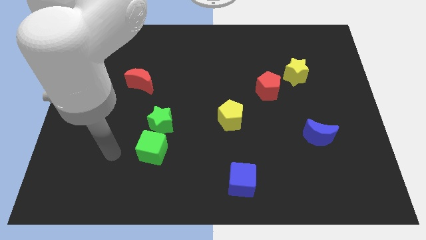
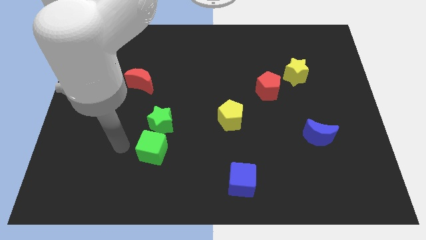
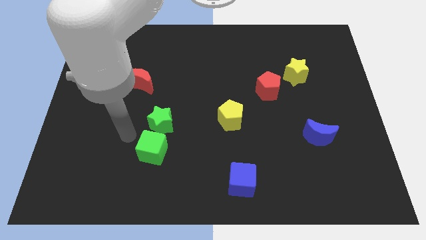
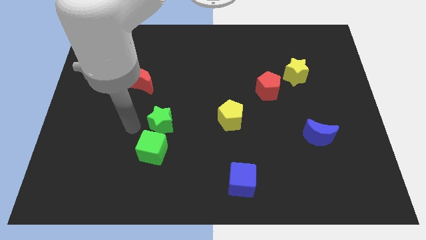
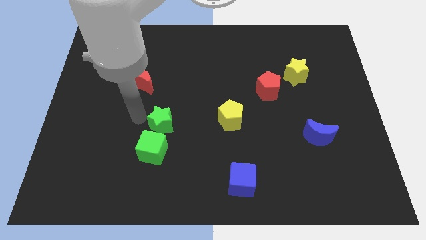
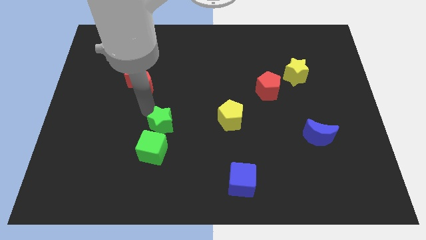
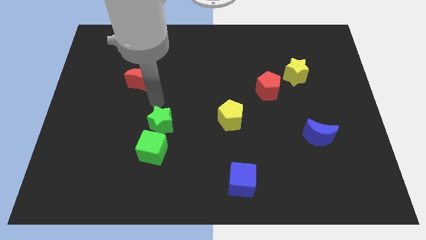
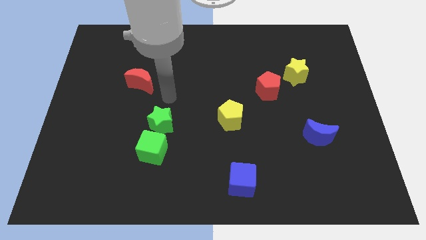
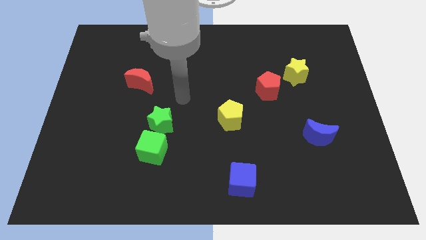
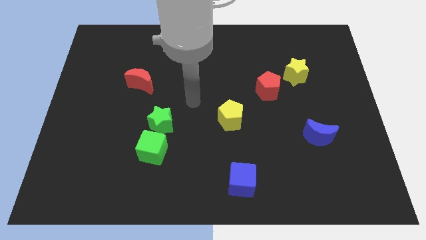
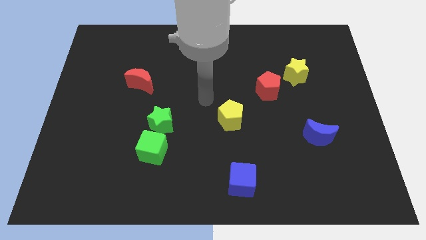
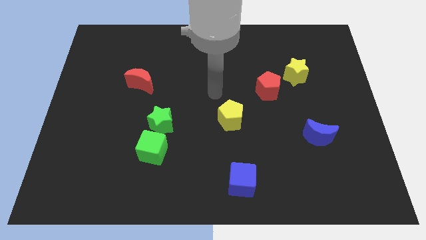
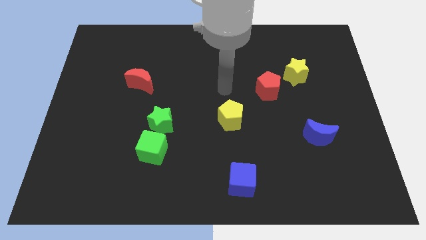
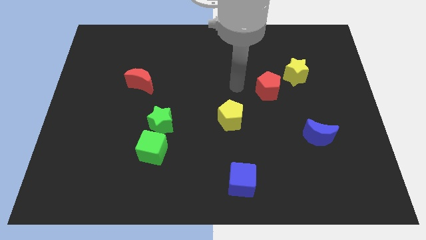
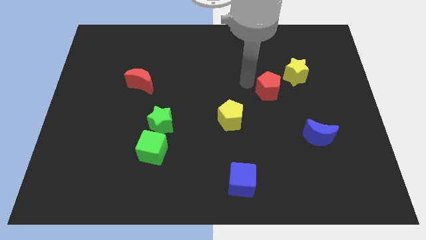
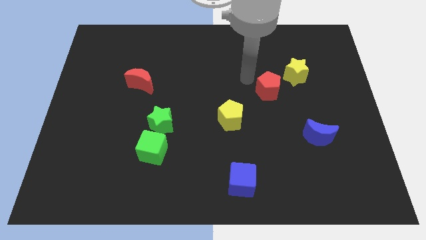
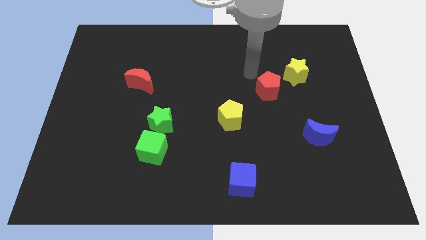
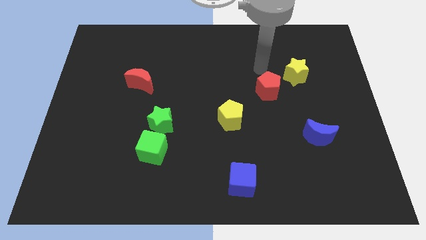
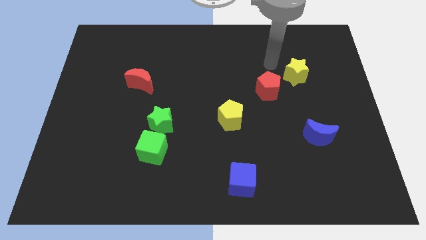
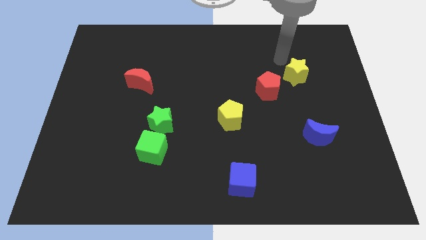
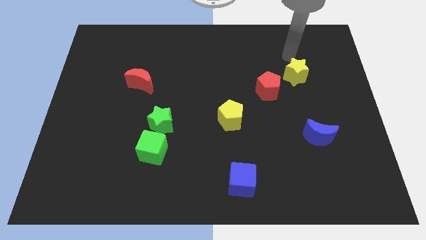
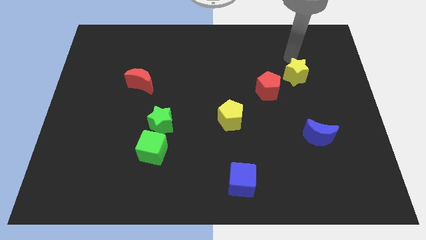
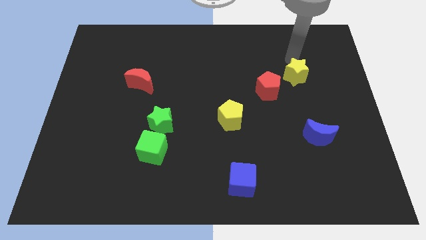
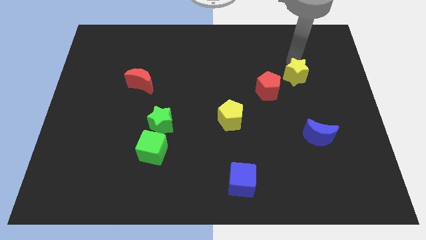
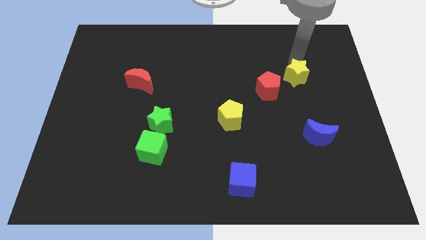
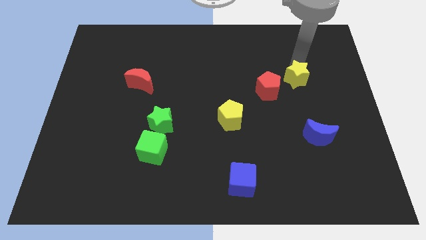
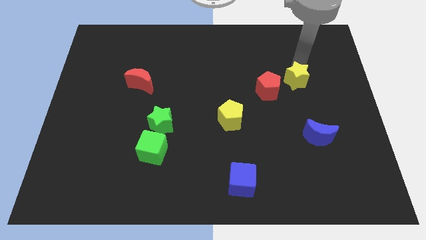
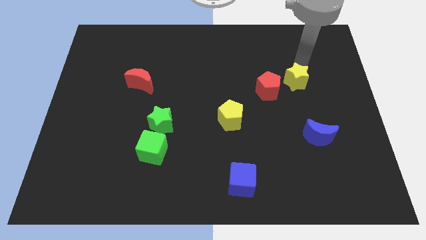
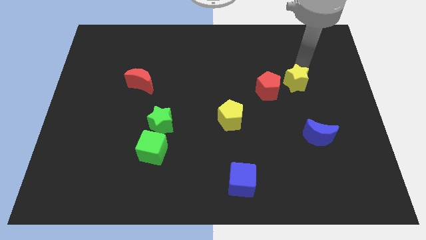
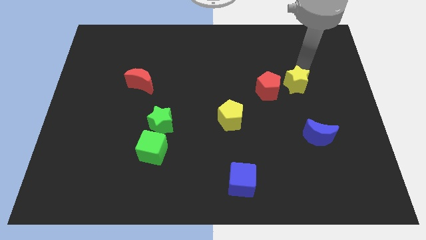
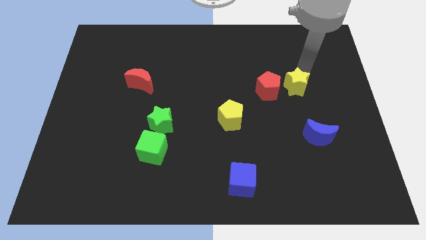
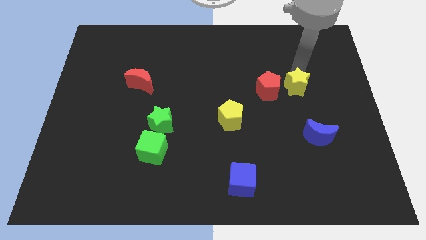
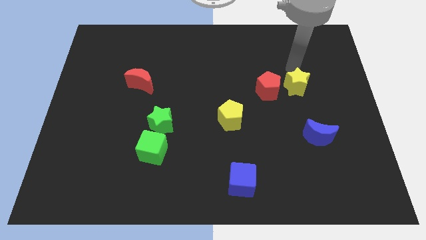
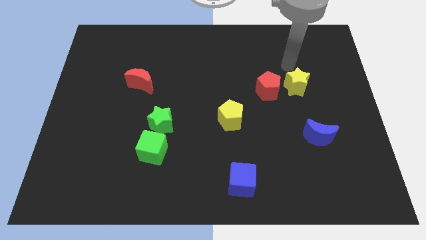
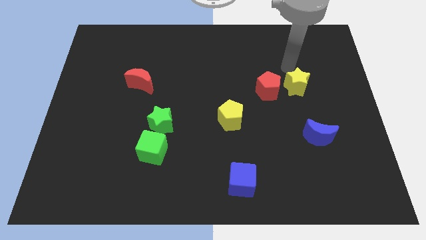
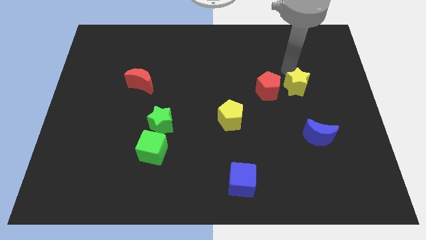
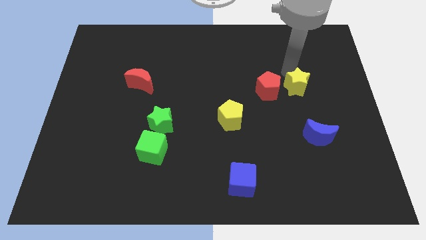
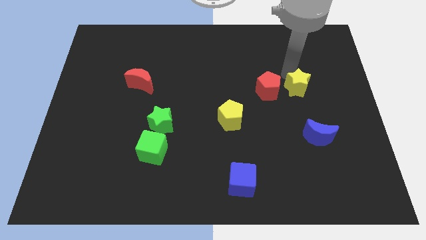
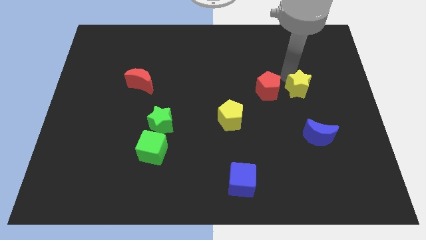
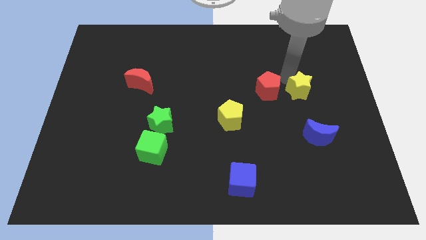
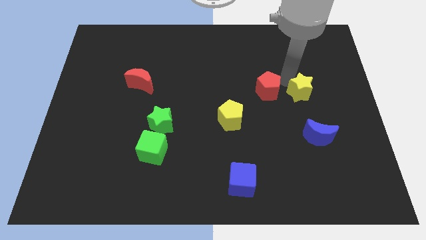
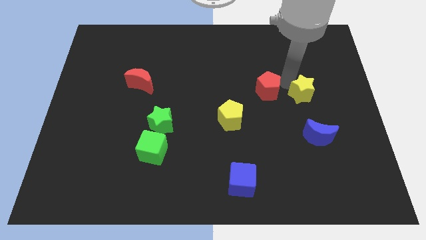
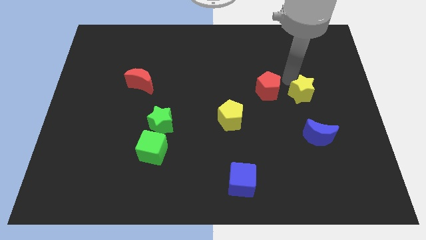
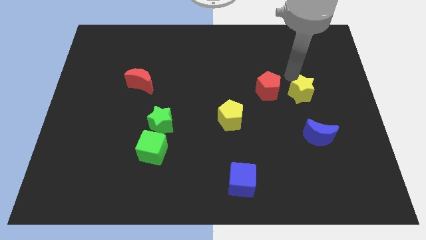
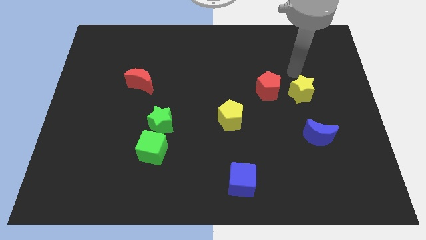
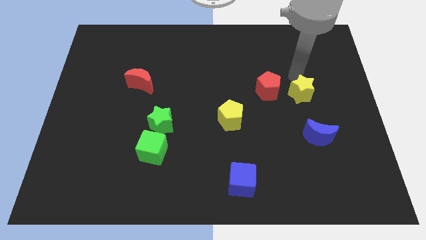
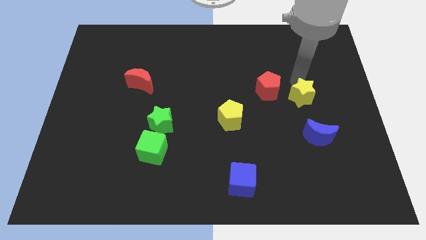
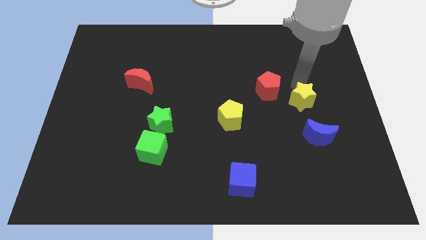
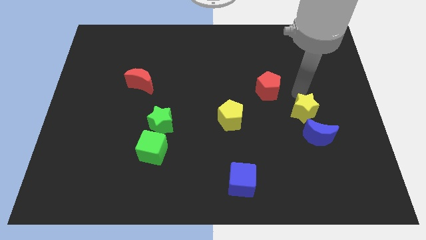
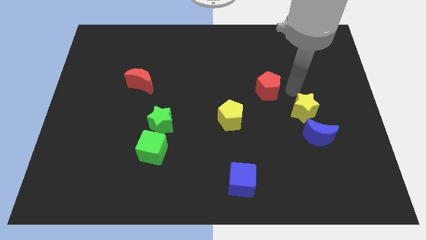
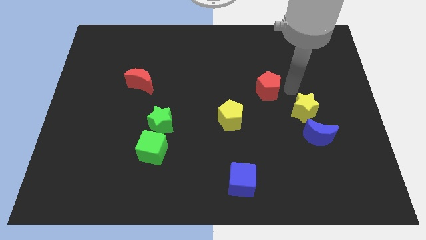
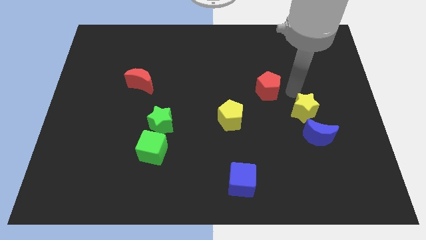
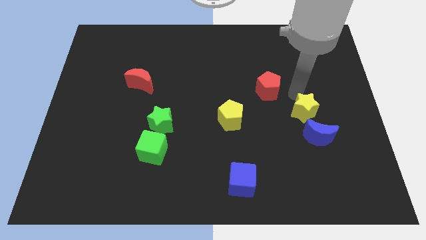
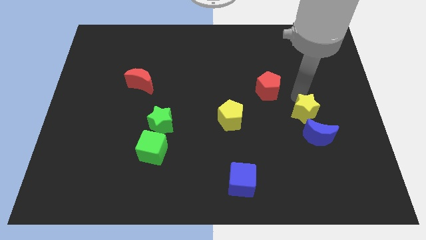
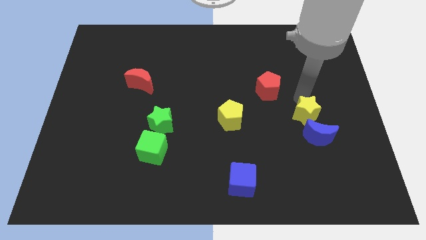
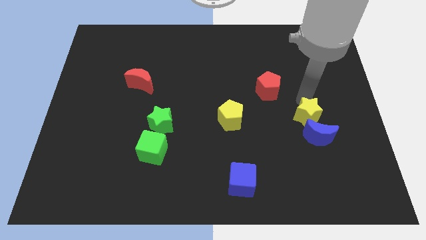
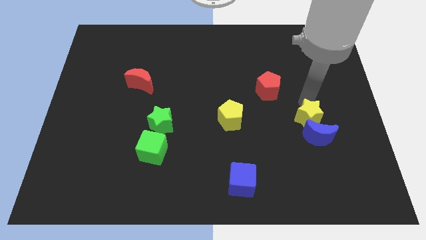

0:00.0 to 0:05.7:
push the yellow star close to the blue moon

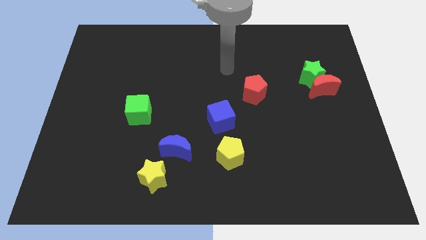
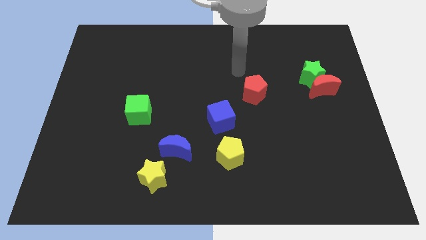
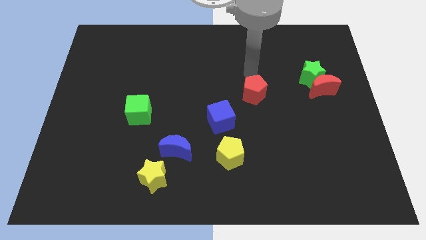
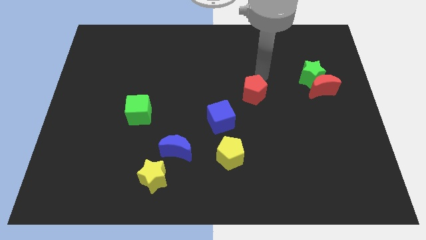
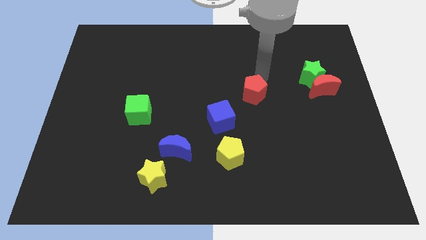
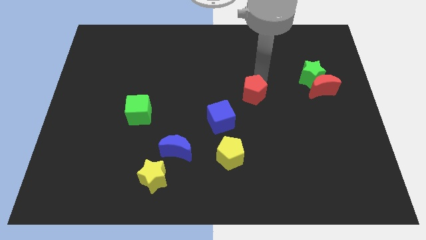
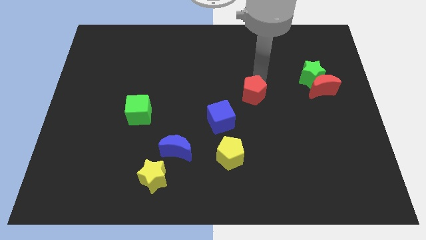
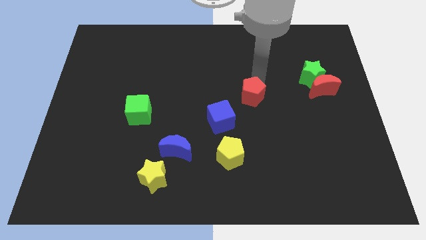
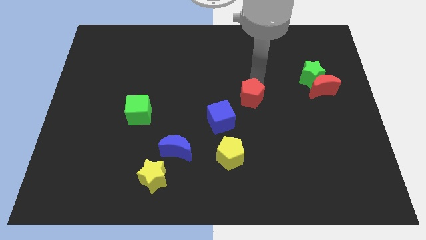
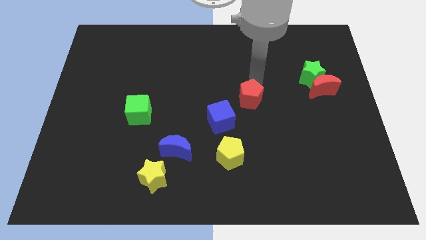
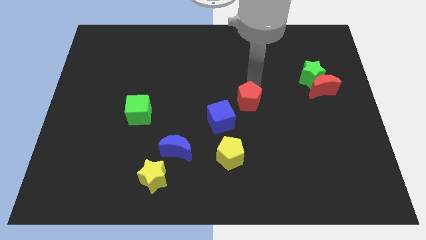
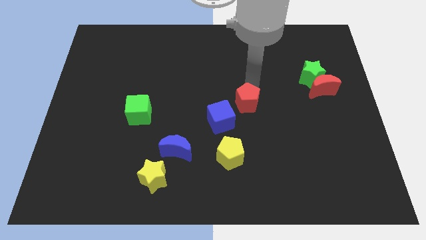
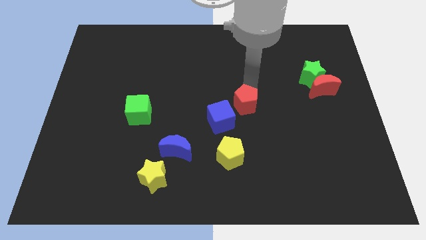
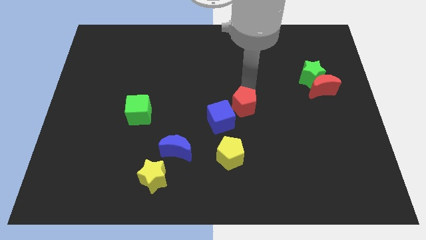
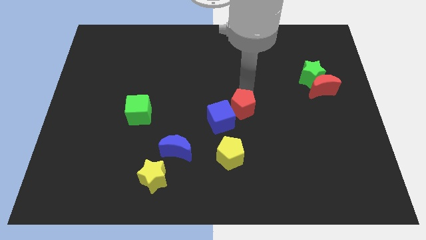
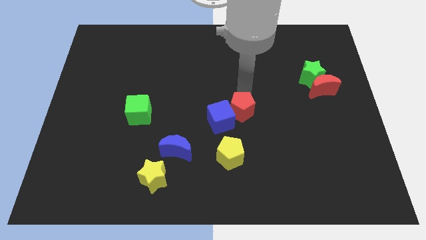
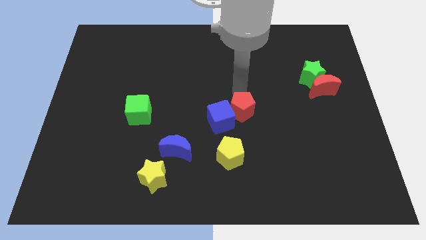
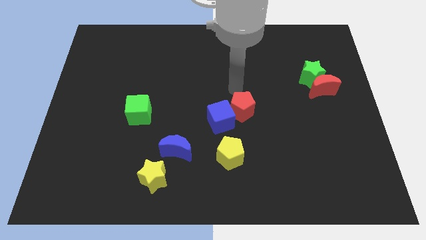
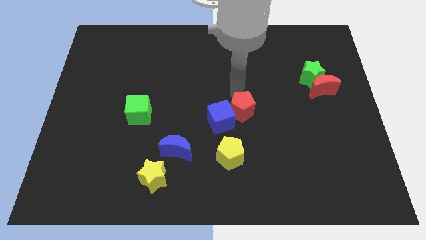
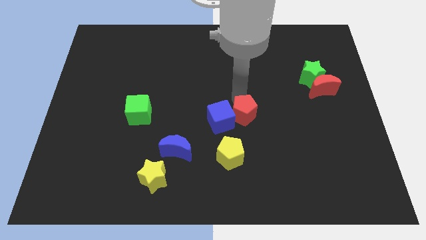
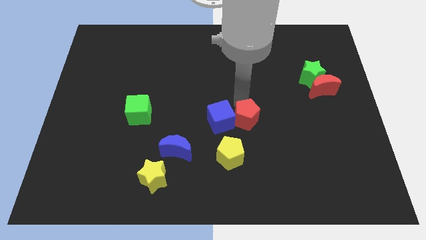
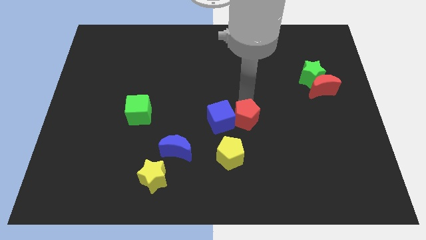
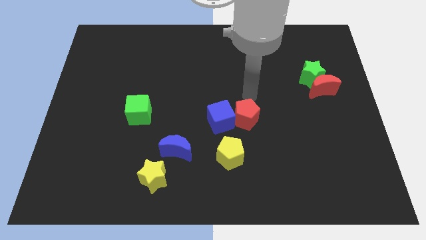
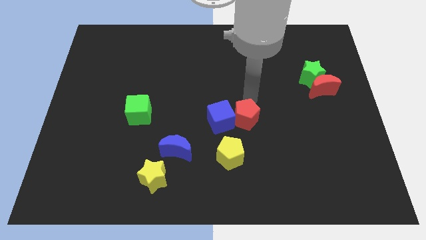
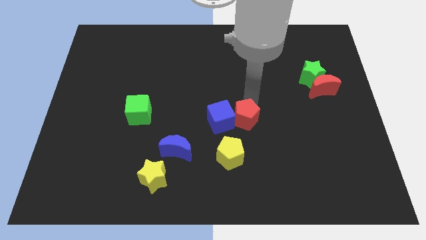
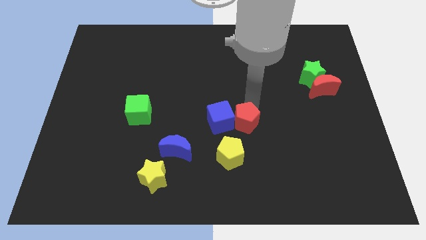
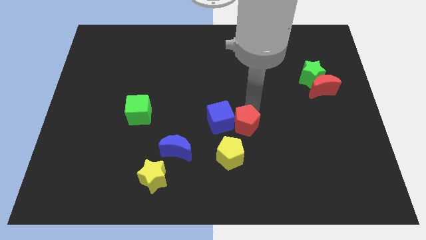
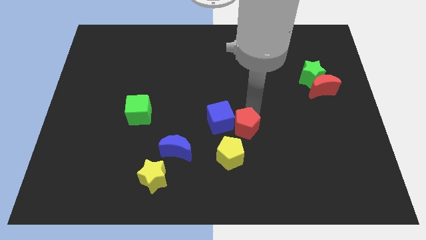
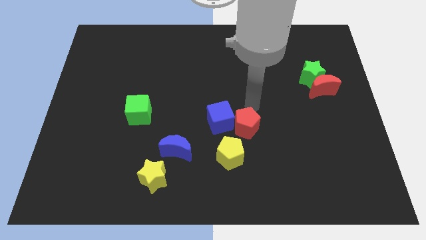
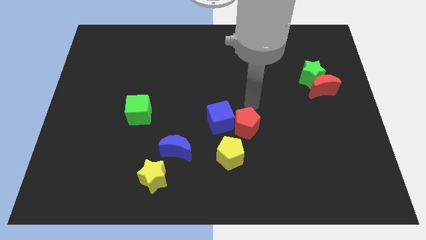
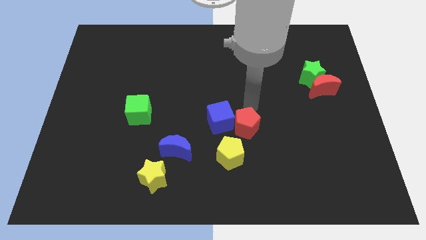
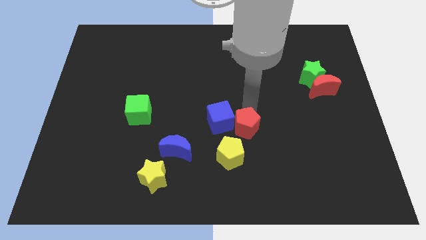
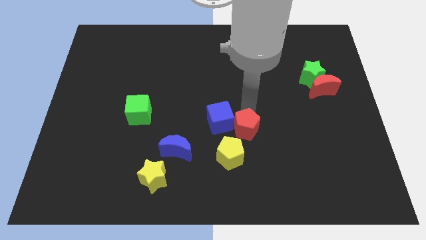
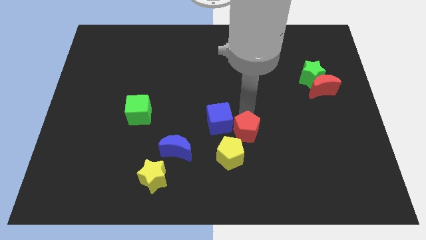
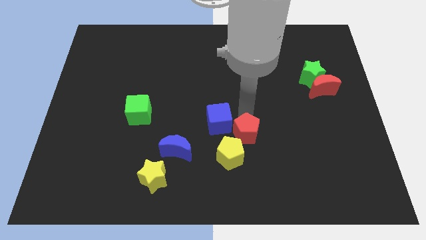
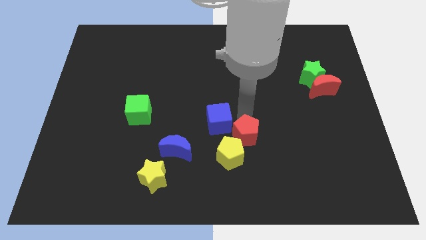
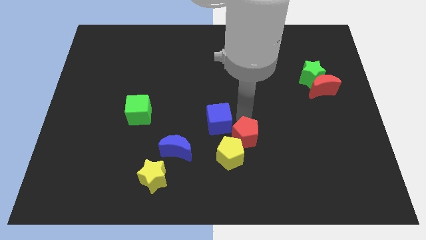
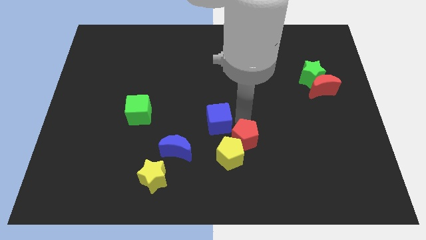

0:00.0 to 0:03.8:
put the red pentagon to the yellow pentagon
